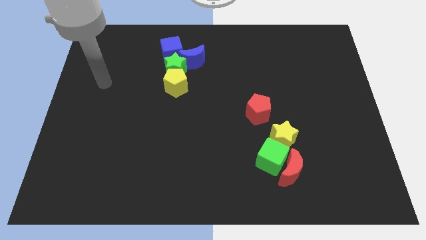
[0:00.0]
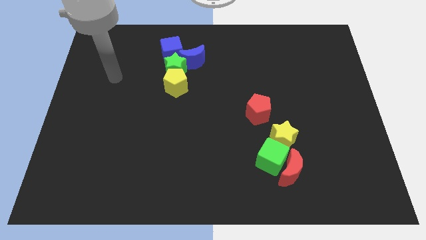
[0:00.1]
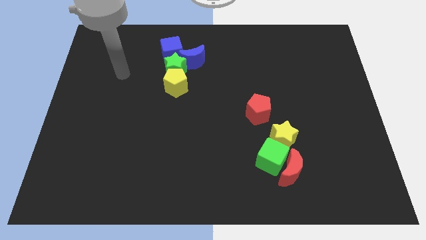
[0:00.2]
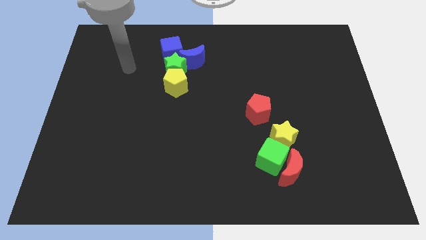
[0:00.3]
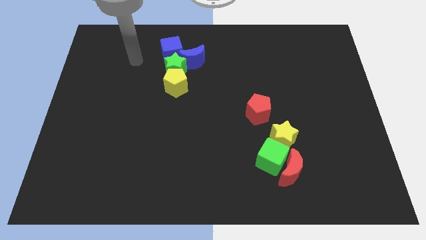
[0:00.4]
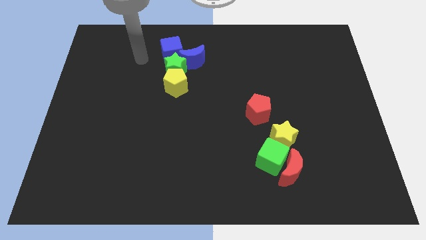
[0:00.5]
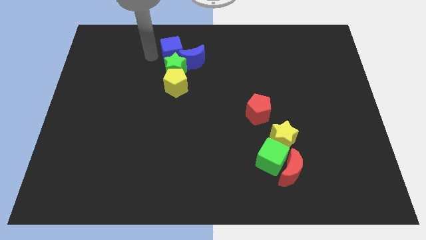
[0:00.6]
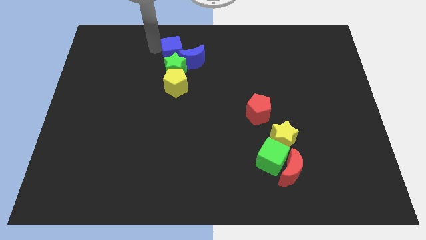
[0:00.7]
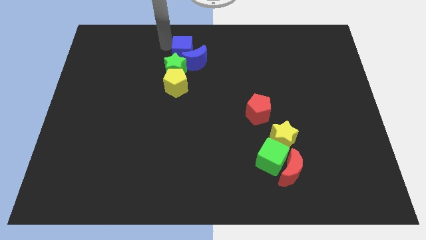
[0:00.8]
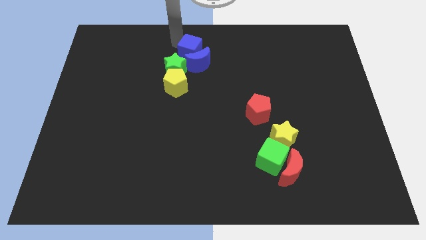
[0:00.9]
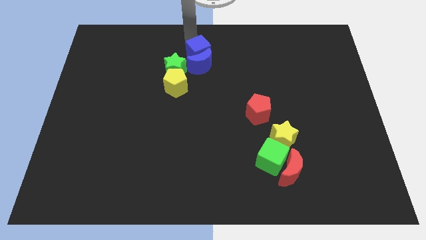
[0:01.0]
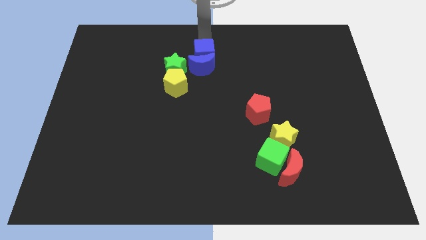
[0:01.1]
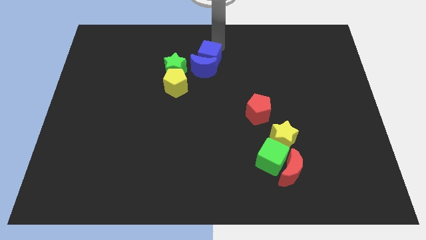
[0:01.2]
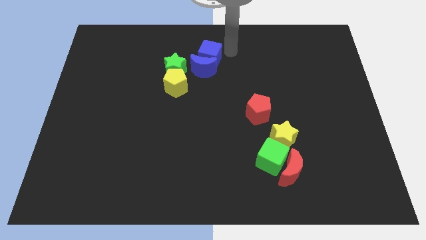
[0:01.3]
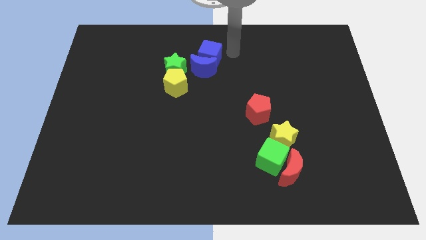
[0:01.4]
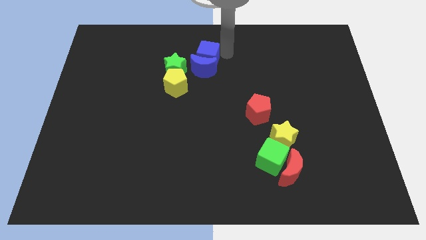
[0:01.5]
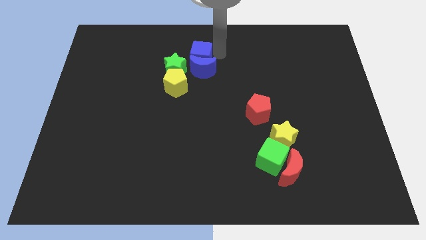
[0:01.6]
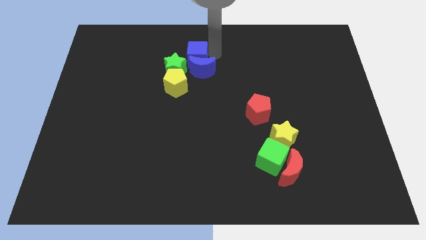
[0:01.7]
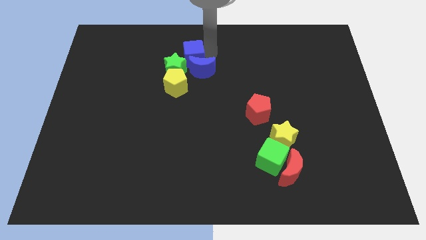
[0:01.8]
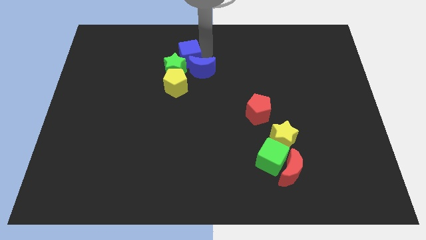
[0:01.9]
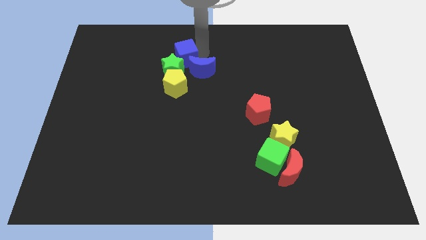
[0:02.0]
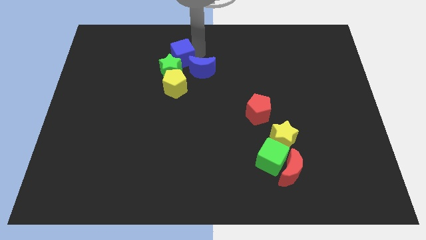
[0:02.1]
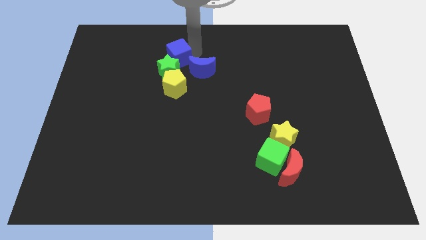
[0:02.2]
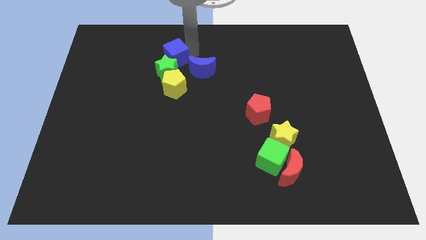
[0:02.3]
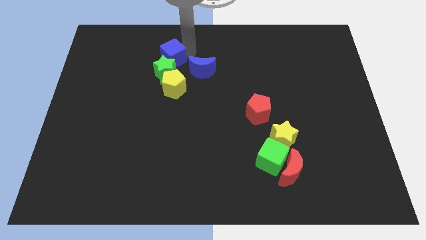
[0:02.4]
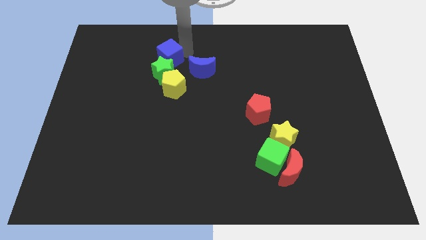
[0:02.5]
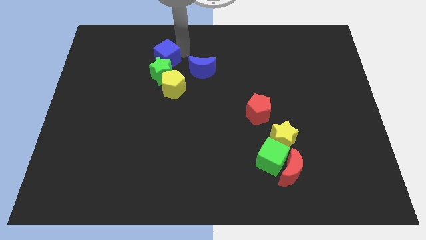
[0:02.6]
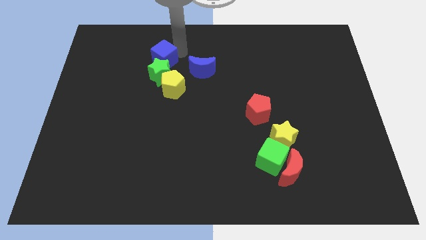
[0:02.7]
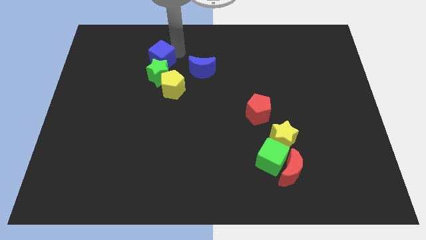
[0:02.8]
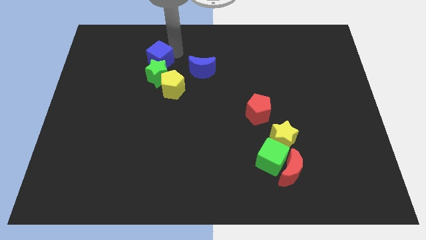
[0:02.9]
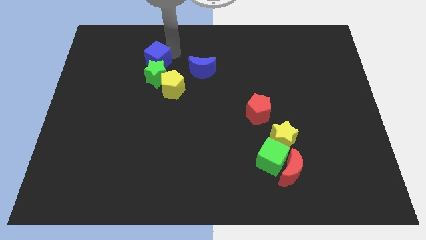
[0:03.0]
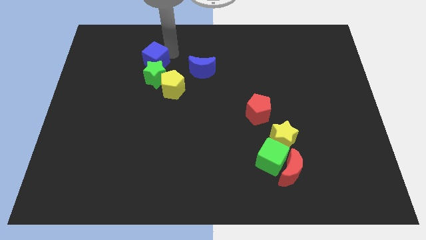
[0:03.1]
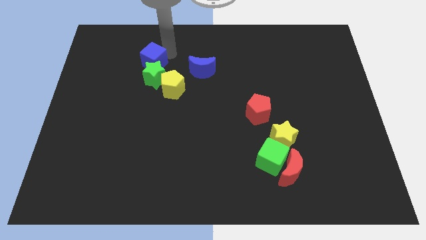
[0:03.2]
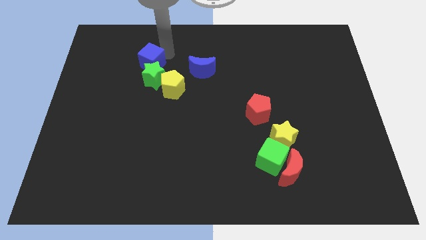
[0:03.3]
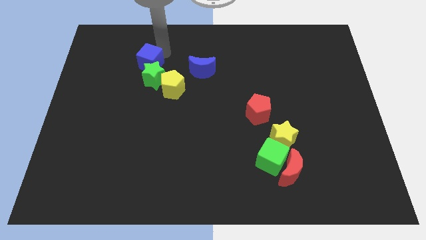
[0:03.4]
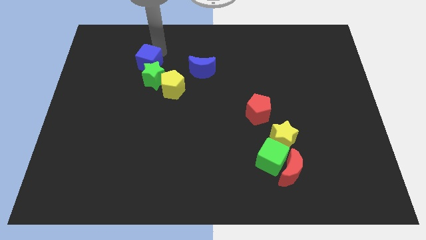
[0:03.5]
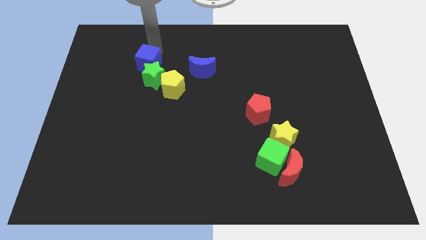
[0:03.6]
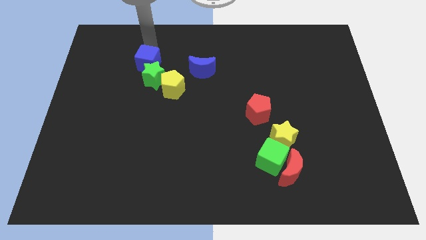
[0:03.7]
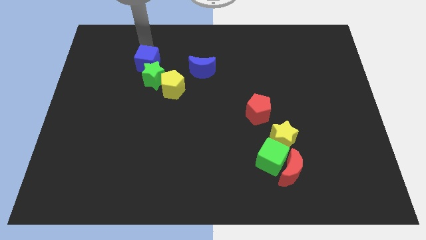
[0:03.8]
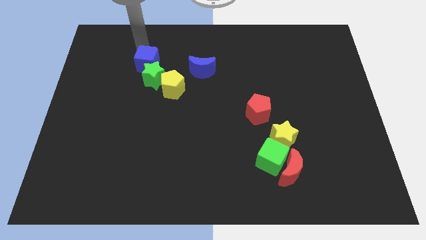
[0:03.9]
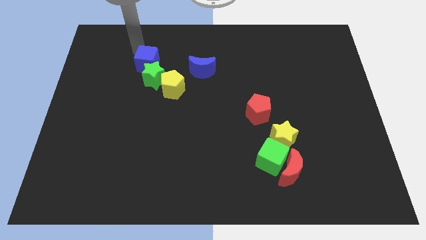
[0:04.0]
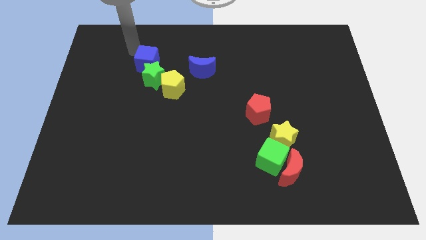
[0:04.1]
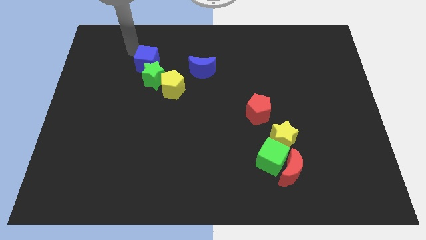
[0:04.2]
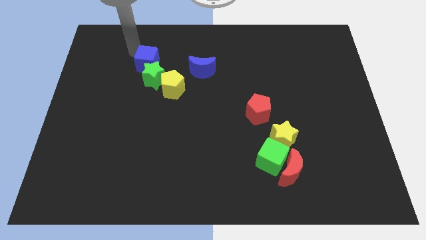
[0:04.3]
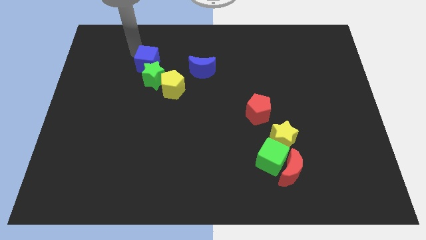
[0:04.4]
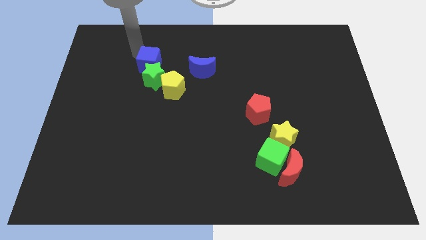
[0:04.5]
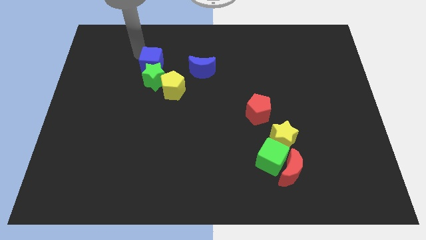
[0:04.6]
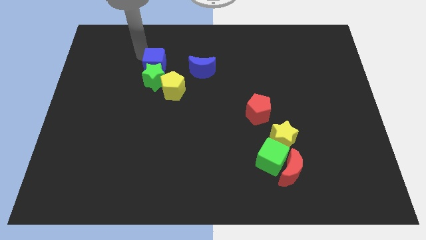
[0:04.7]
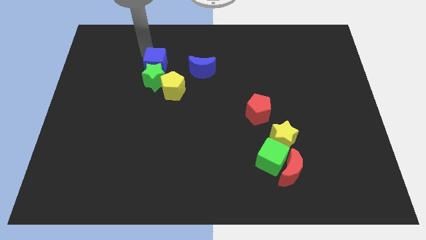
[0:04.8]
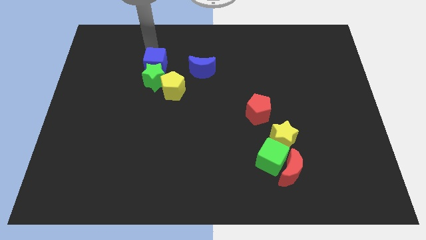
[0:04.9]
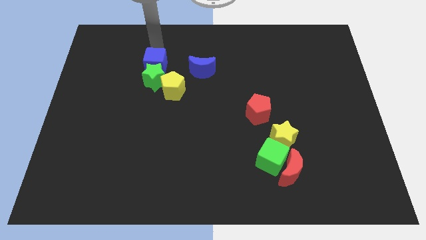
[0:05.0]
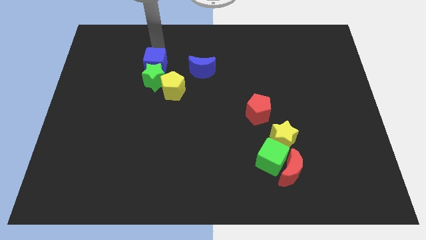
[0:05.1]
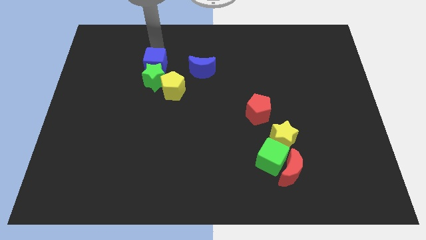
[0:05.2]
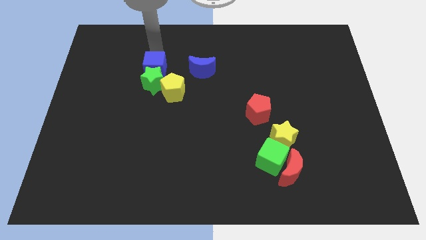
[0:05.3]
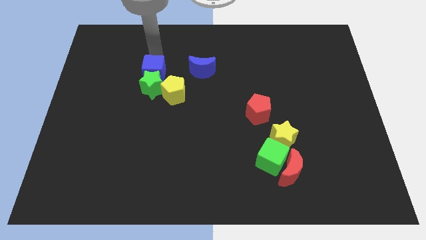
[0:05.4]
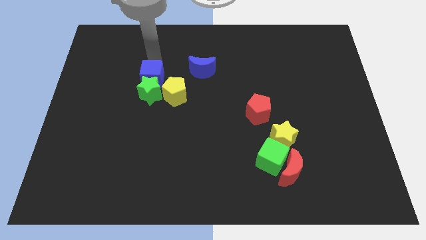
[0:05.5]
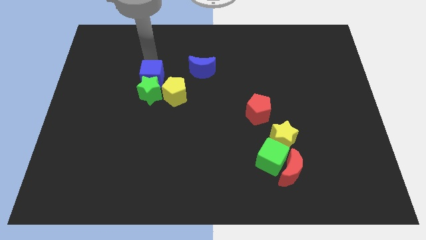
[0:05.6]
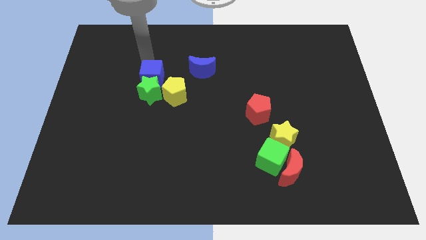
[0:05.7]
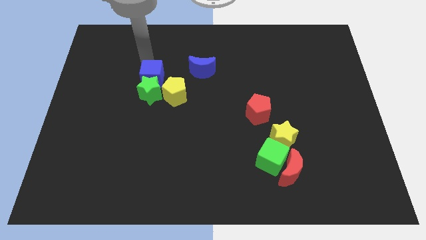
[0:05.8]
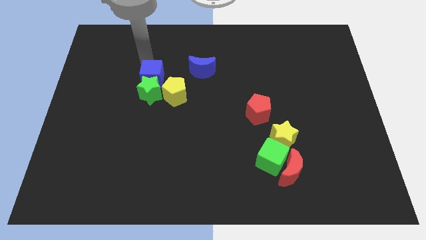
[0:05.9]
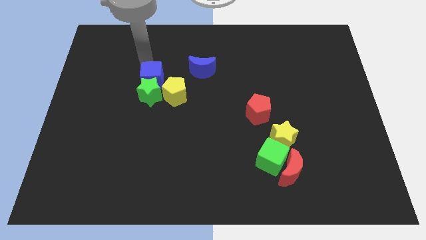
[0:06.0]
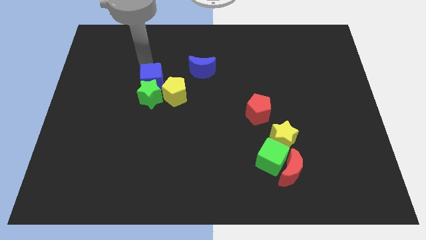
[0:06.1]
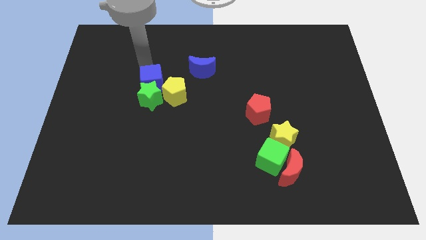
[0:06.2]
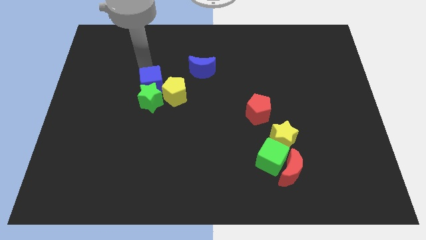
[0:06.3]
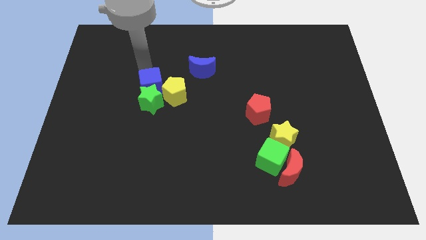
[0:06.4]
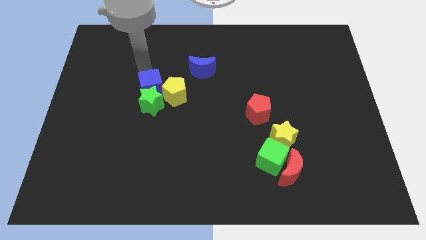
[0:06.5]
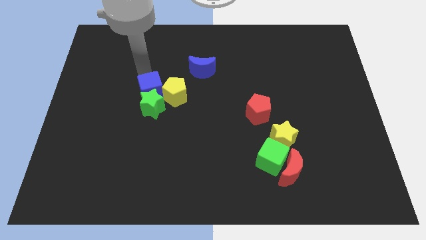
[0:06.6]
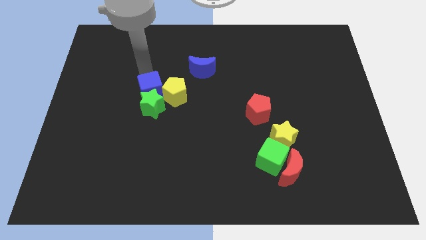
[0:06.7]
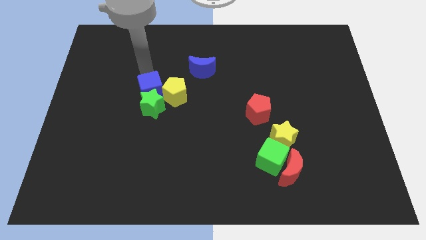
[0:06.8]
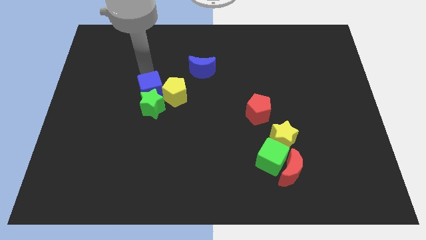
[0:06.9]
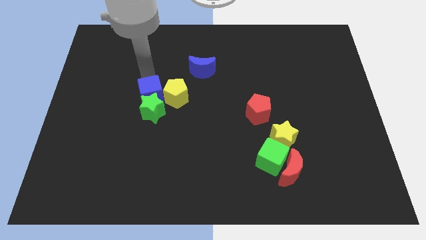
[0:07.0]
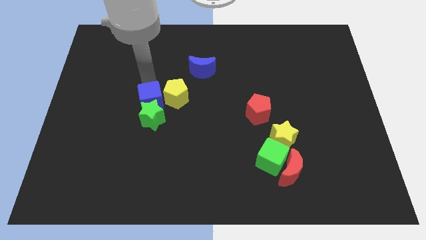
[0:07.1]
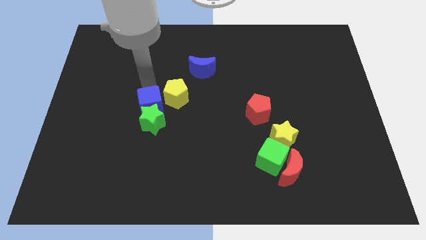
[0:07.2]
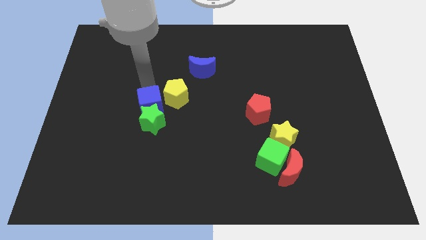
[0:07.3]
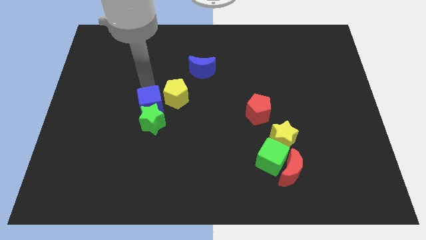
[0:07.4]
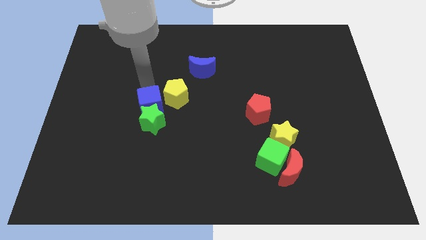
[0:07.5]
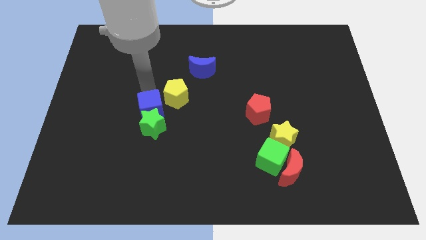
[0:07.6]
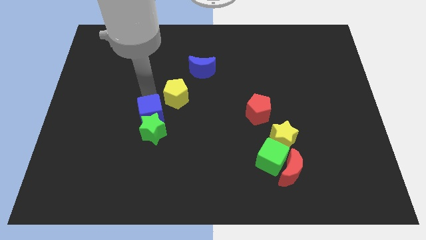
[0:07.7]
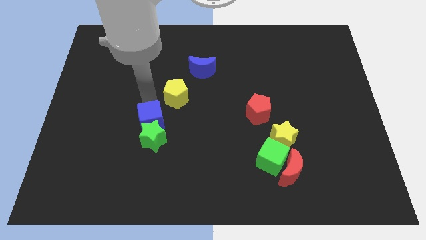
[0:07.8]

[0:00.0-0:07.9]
move the blue cube down
